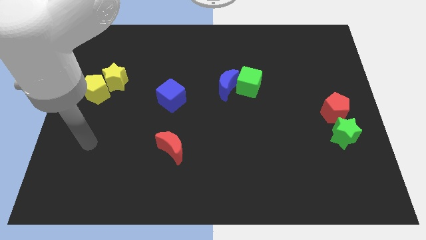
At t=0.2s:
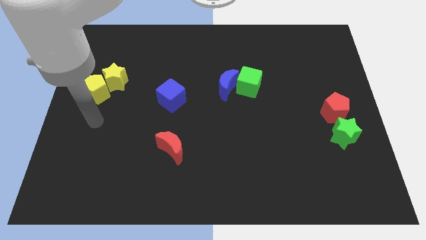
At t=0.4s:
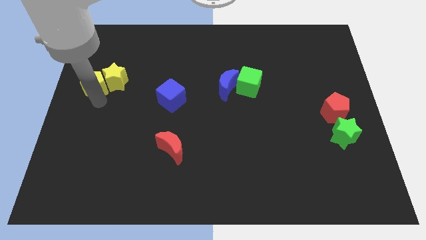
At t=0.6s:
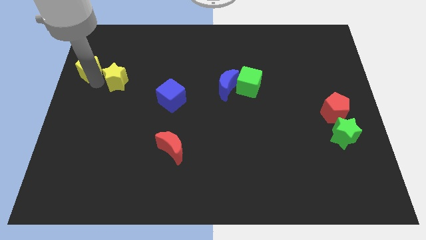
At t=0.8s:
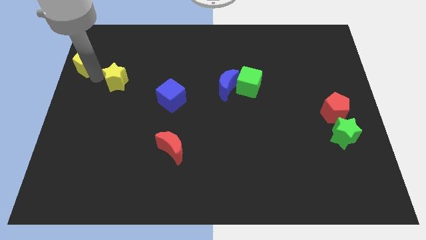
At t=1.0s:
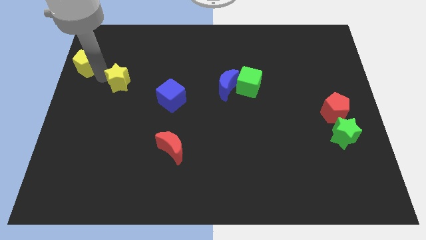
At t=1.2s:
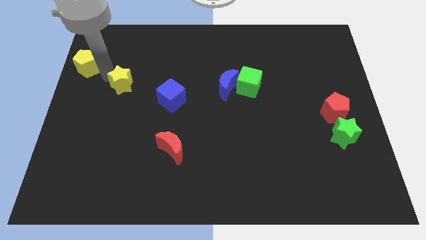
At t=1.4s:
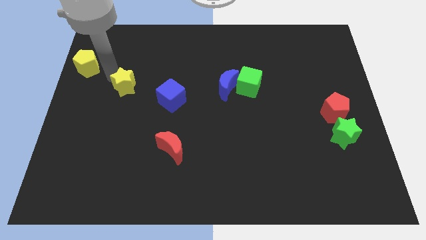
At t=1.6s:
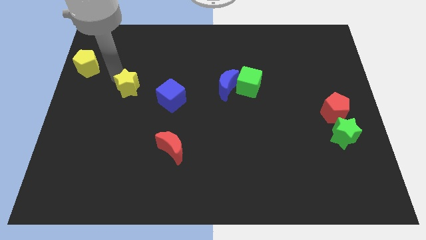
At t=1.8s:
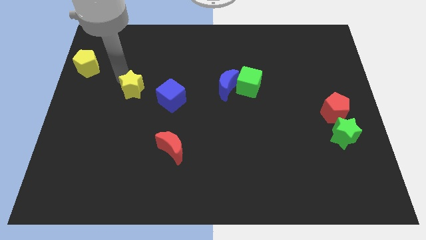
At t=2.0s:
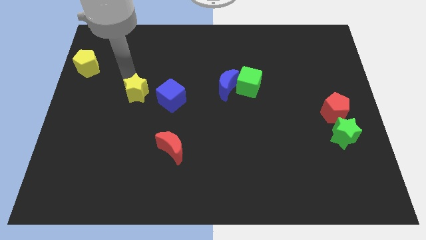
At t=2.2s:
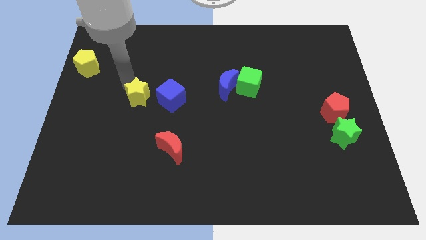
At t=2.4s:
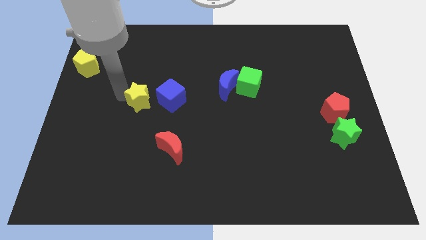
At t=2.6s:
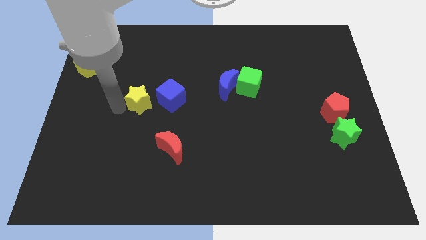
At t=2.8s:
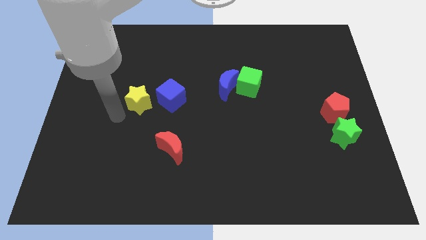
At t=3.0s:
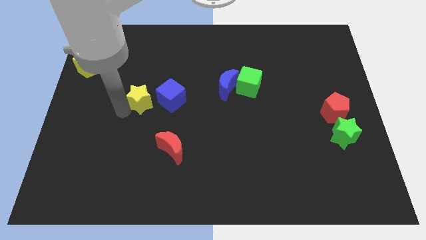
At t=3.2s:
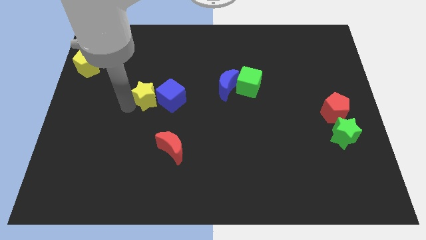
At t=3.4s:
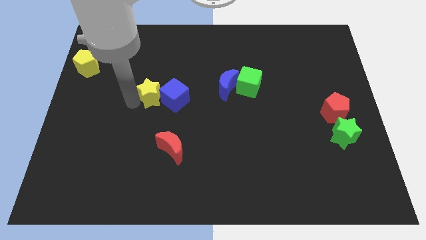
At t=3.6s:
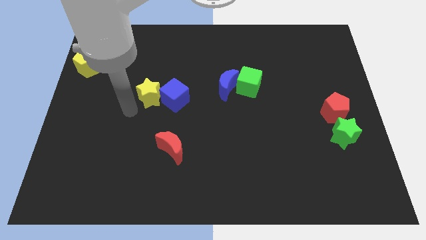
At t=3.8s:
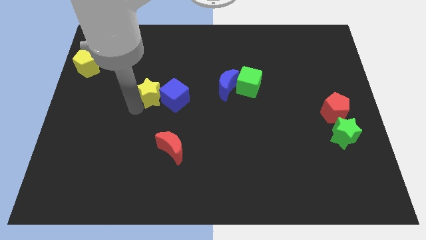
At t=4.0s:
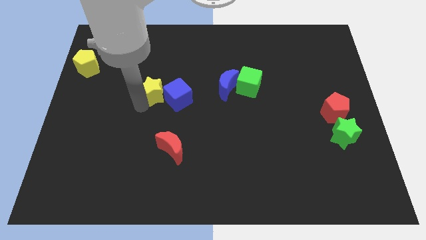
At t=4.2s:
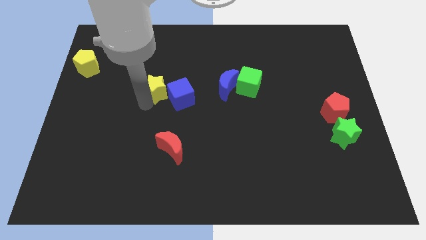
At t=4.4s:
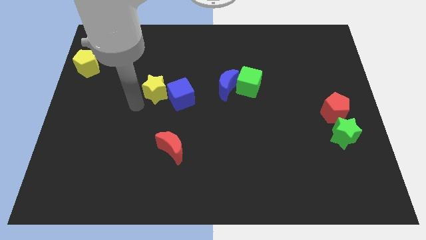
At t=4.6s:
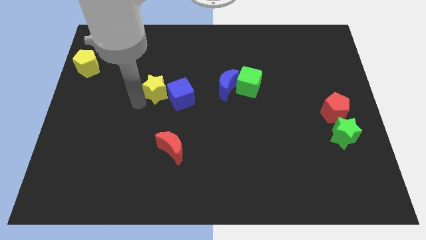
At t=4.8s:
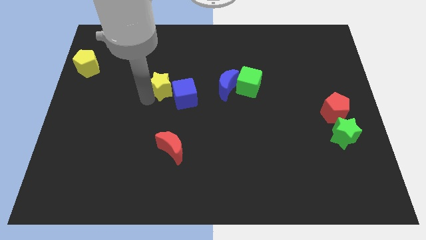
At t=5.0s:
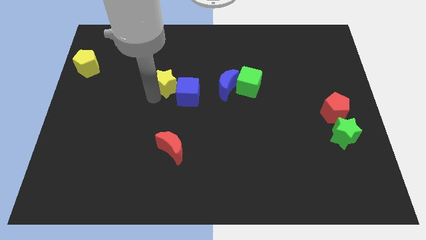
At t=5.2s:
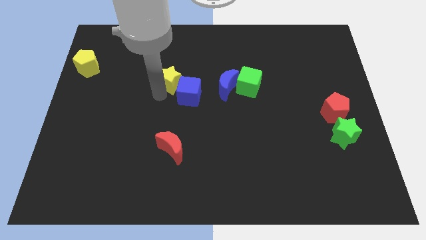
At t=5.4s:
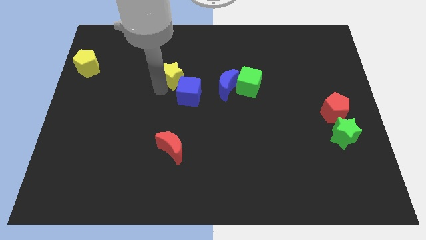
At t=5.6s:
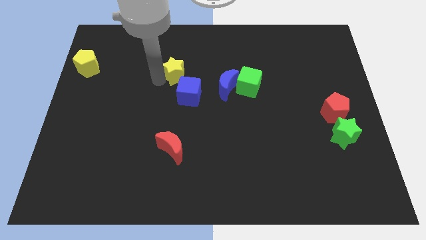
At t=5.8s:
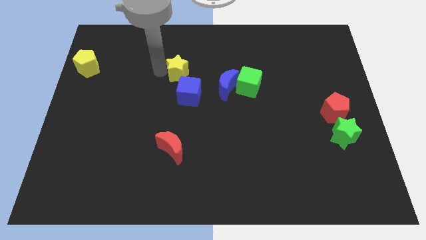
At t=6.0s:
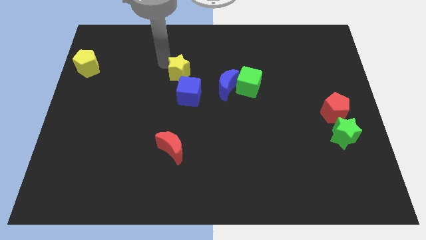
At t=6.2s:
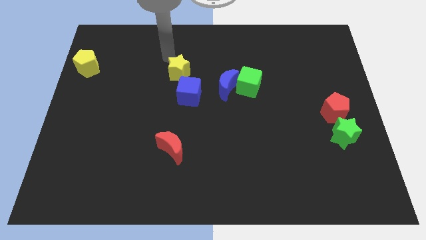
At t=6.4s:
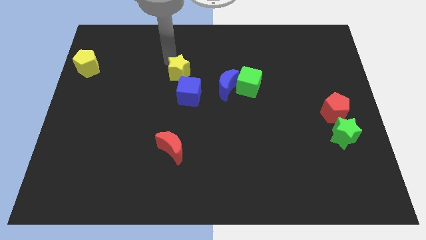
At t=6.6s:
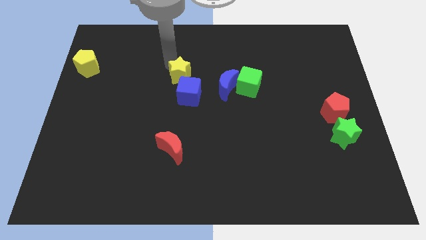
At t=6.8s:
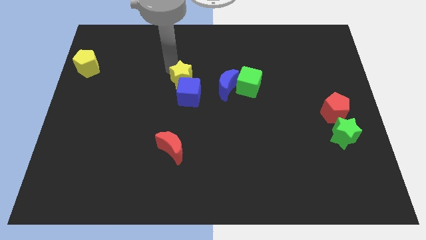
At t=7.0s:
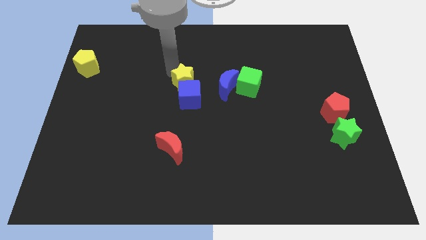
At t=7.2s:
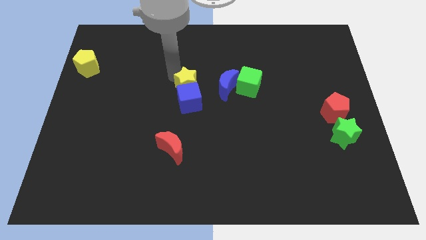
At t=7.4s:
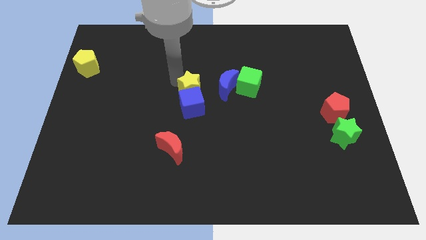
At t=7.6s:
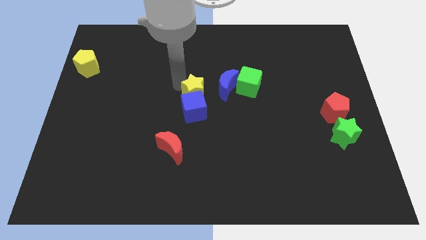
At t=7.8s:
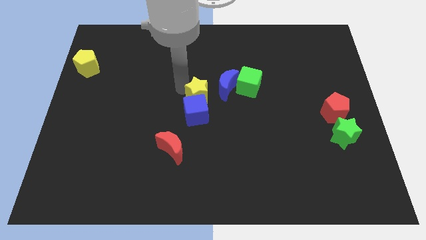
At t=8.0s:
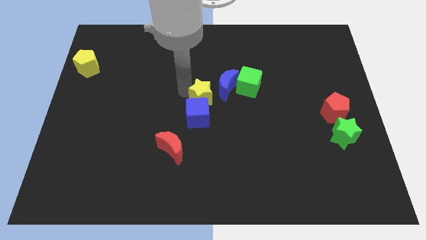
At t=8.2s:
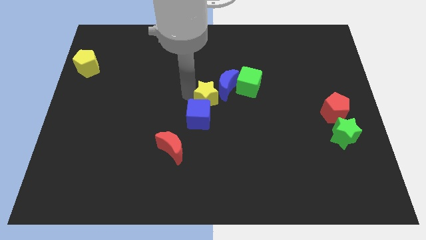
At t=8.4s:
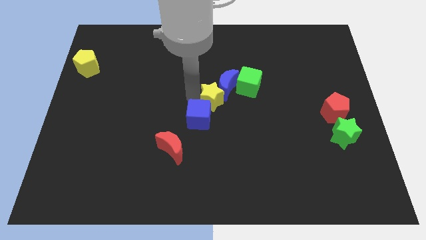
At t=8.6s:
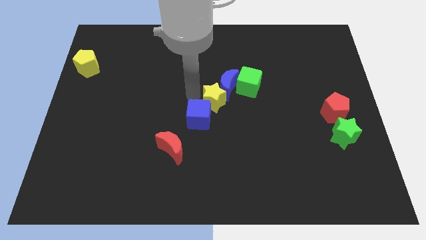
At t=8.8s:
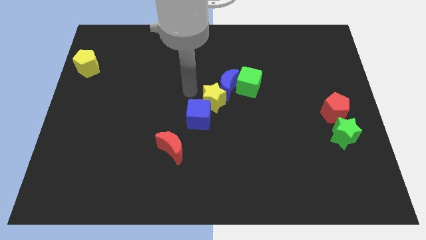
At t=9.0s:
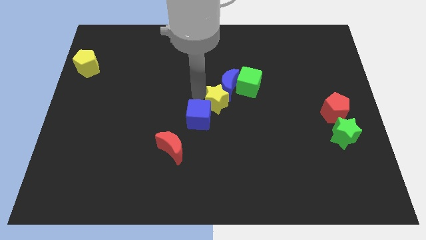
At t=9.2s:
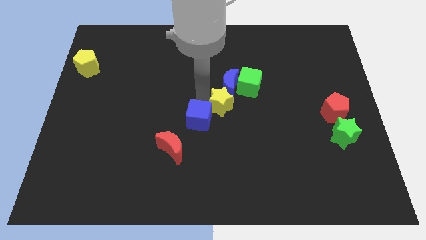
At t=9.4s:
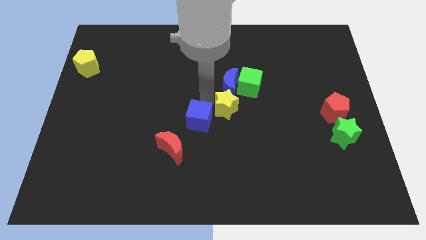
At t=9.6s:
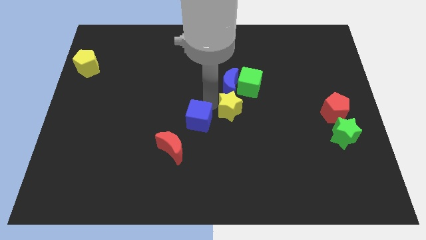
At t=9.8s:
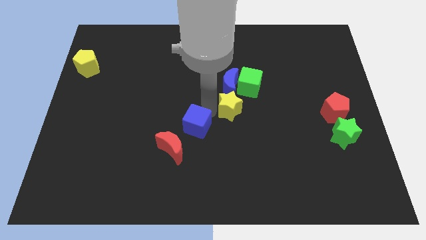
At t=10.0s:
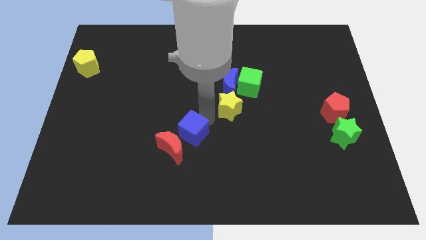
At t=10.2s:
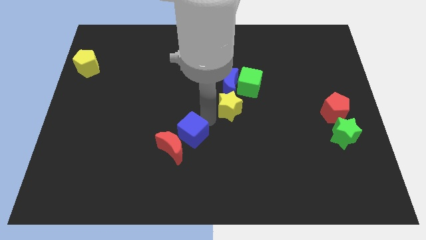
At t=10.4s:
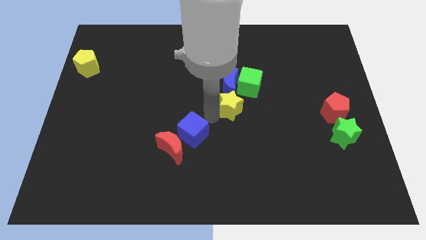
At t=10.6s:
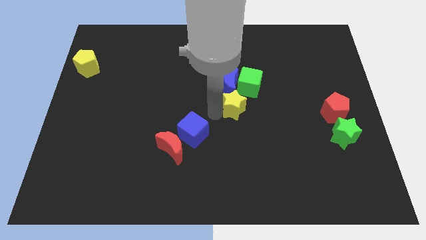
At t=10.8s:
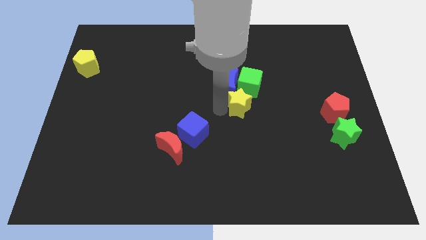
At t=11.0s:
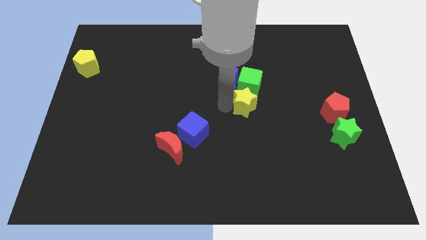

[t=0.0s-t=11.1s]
put the yellow star to the green cube

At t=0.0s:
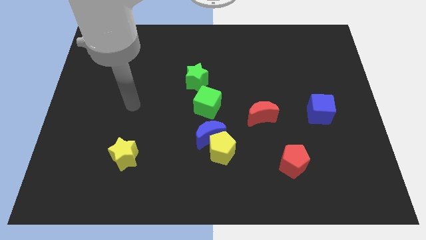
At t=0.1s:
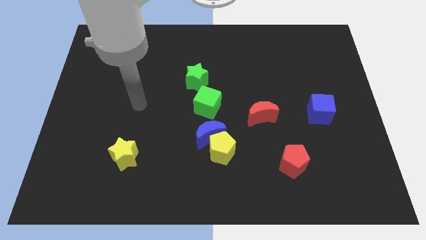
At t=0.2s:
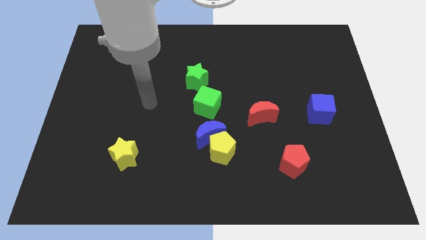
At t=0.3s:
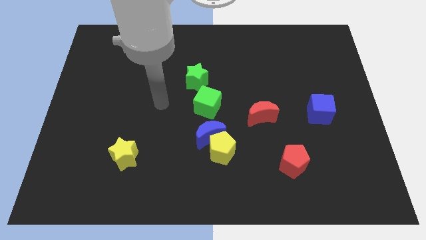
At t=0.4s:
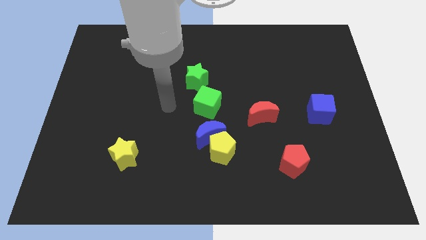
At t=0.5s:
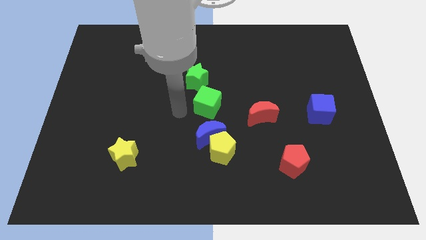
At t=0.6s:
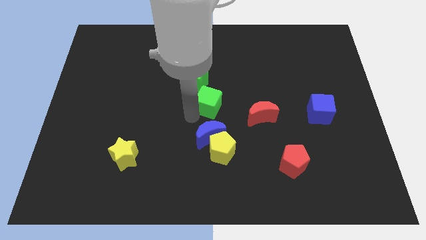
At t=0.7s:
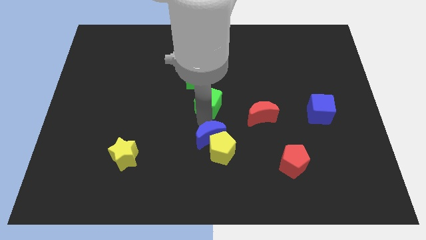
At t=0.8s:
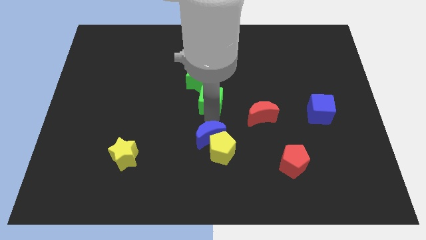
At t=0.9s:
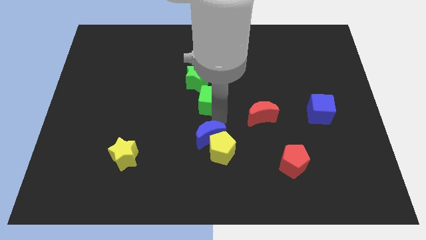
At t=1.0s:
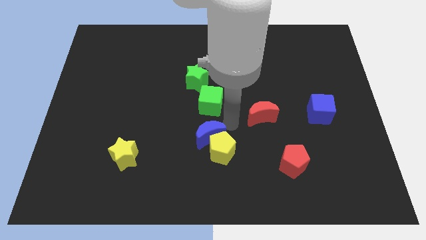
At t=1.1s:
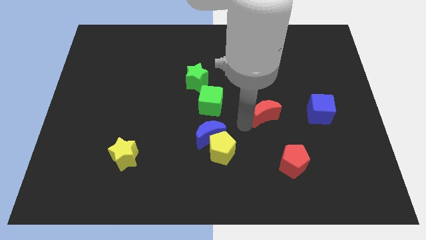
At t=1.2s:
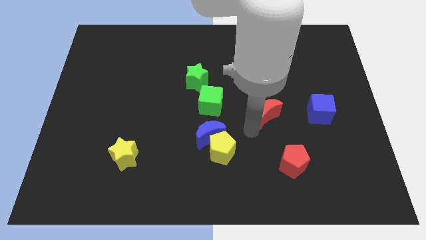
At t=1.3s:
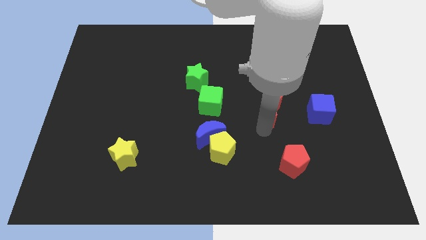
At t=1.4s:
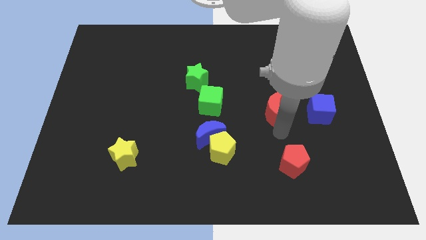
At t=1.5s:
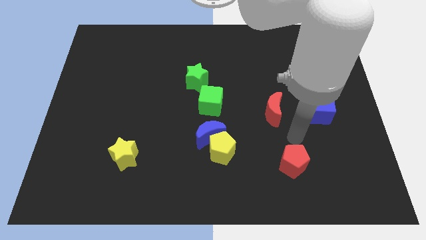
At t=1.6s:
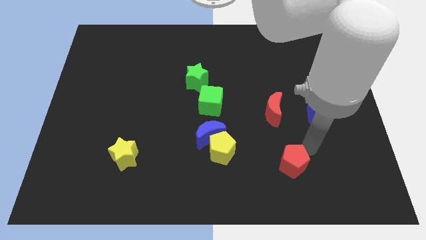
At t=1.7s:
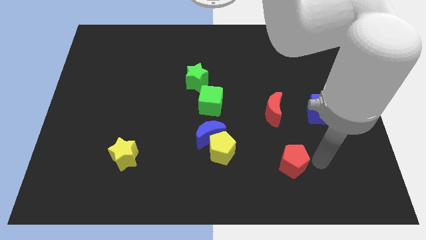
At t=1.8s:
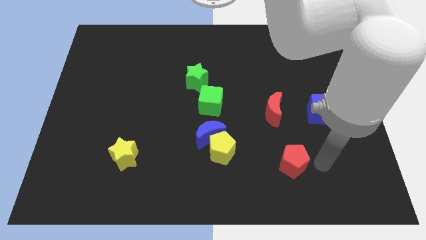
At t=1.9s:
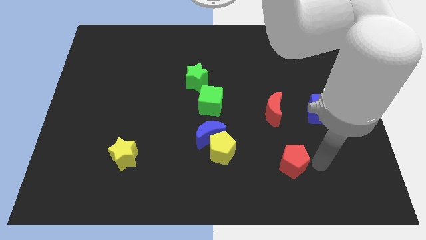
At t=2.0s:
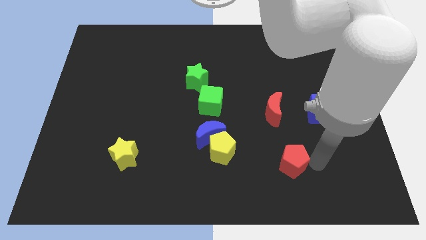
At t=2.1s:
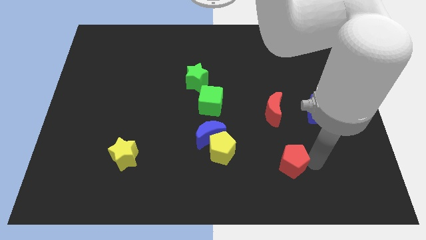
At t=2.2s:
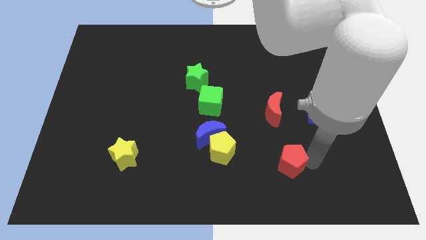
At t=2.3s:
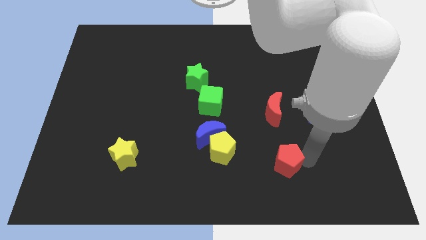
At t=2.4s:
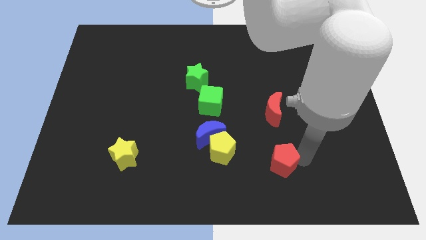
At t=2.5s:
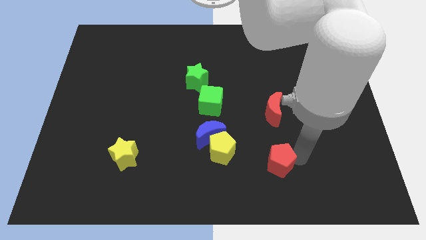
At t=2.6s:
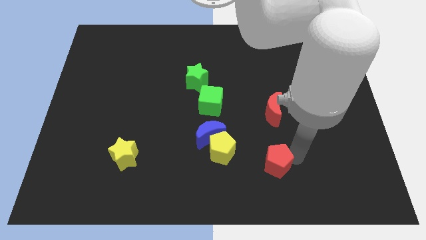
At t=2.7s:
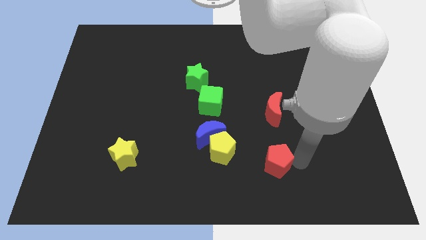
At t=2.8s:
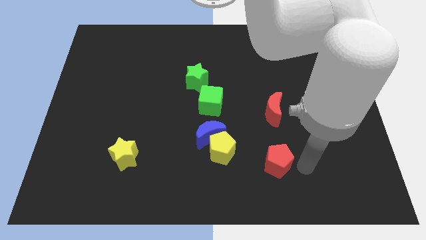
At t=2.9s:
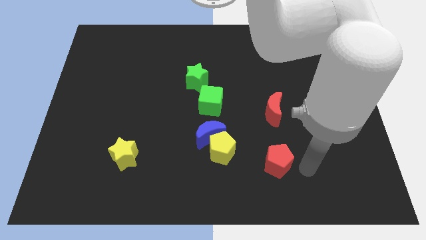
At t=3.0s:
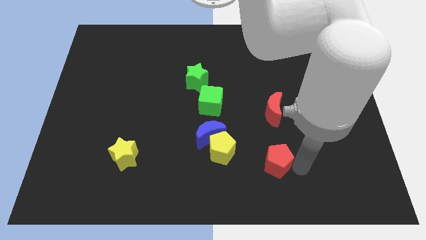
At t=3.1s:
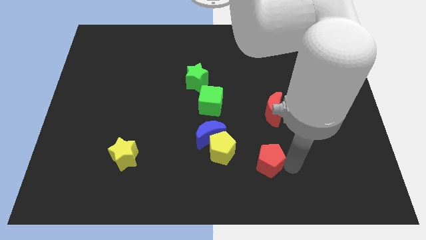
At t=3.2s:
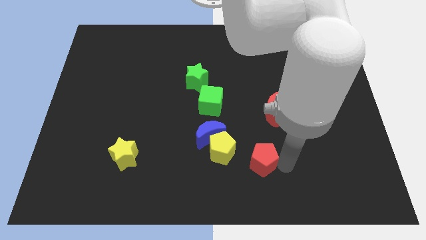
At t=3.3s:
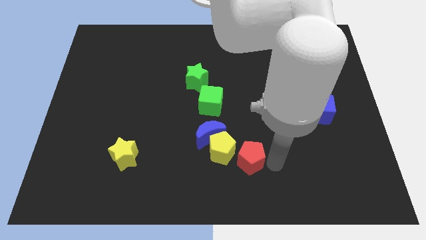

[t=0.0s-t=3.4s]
slide the red pentagon close to the yellow pentagon
